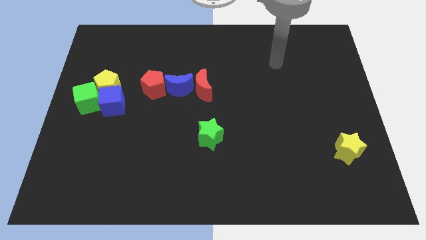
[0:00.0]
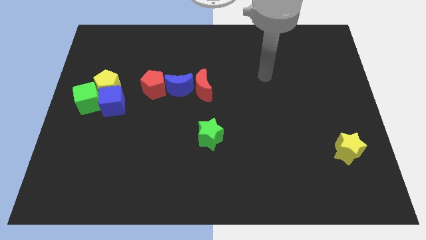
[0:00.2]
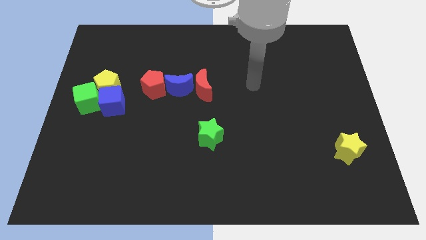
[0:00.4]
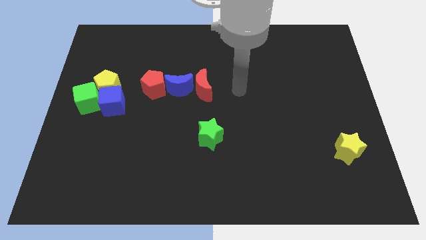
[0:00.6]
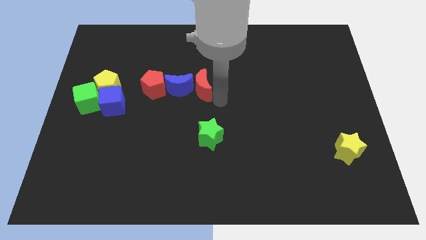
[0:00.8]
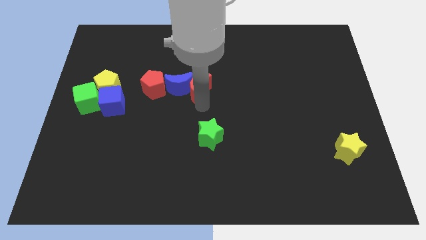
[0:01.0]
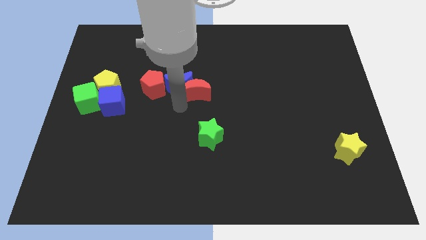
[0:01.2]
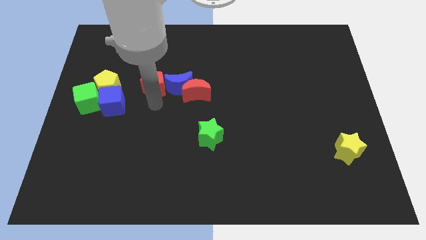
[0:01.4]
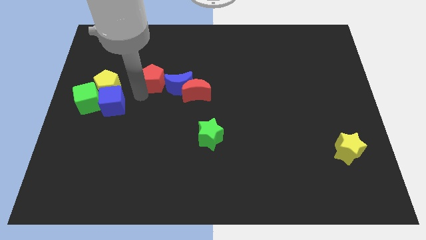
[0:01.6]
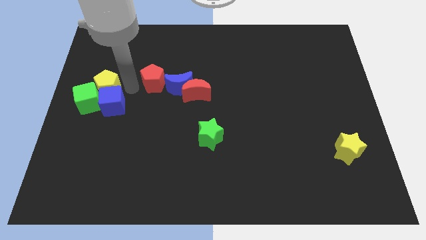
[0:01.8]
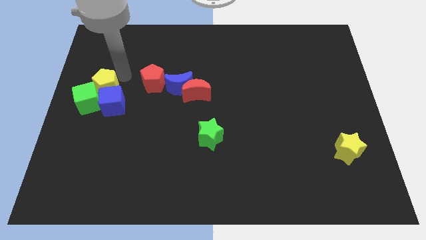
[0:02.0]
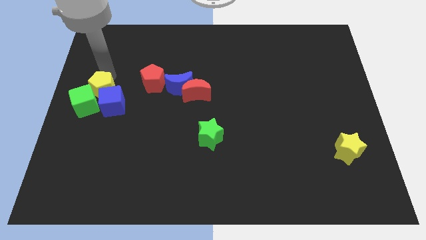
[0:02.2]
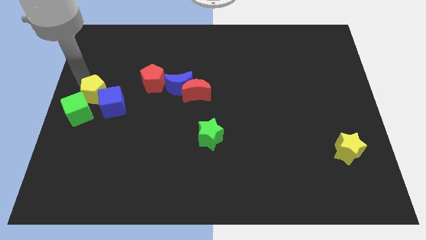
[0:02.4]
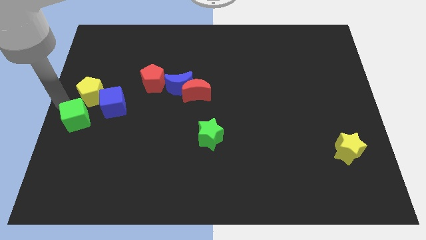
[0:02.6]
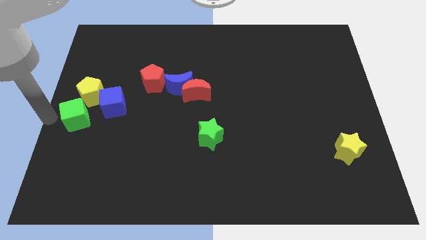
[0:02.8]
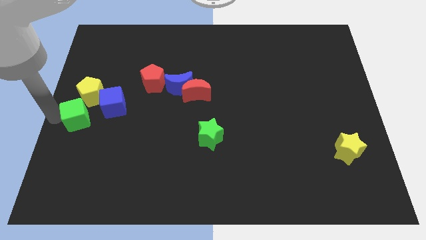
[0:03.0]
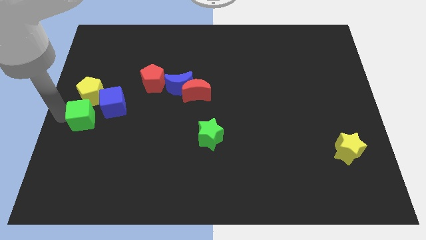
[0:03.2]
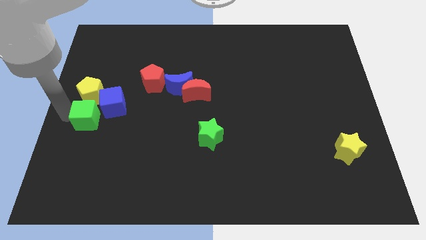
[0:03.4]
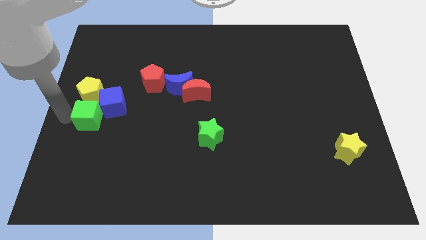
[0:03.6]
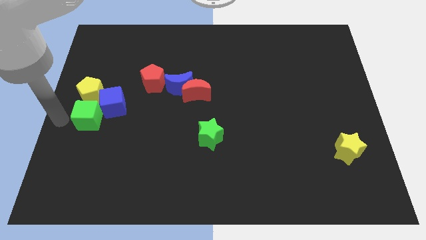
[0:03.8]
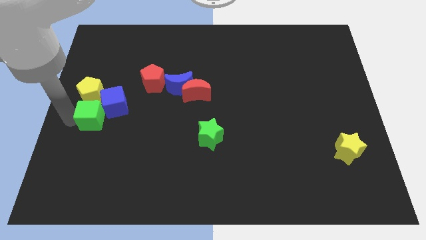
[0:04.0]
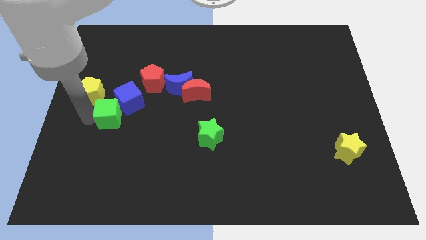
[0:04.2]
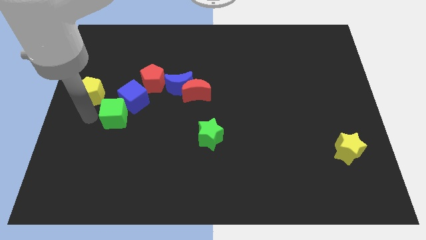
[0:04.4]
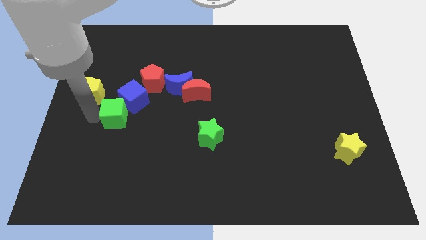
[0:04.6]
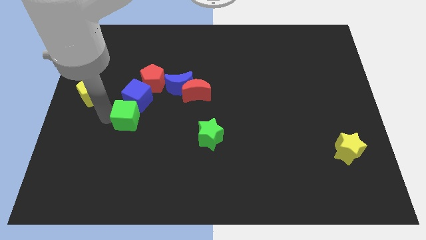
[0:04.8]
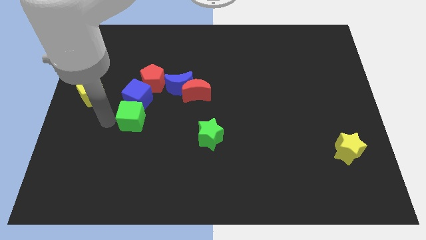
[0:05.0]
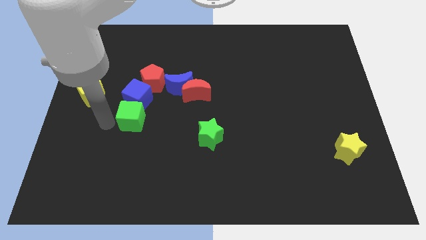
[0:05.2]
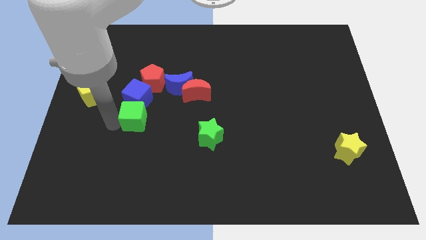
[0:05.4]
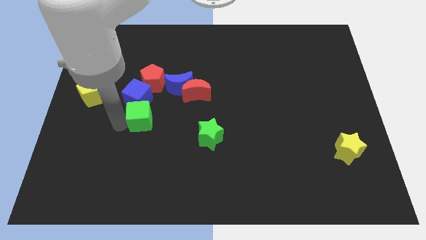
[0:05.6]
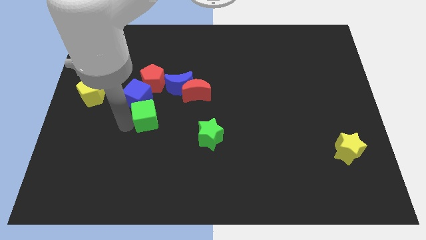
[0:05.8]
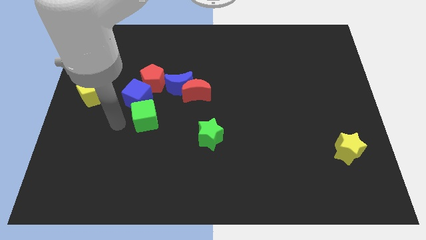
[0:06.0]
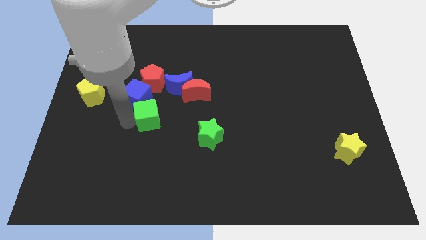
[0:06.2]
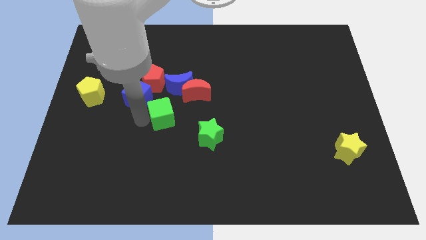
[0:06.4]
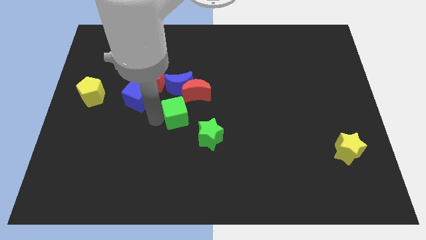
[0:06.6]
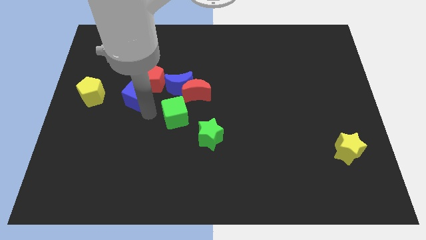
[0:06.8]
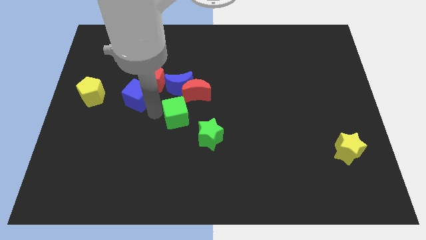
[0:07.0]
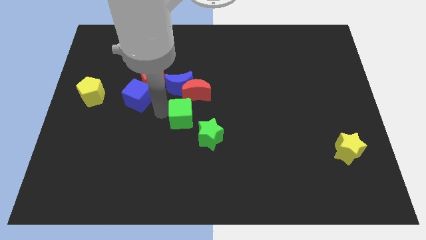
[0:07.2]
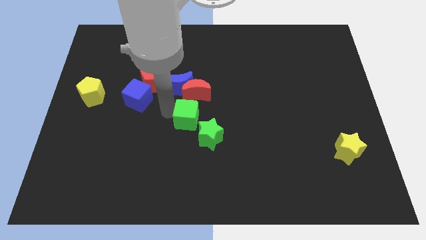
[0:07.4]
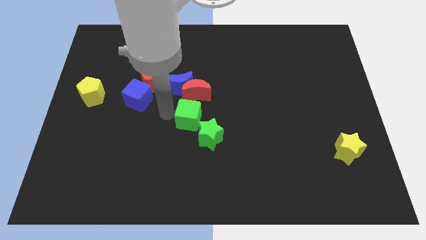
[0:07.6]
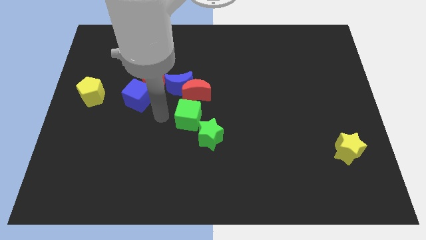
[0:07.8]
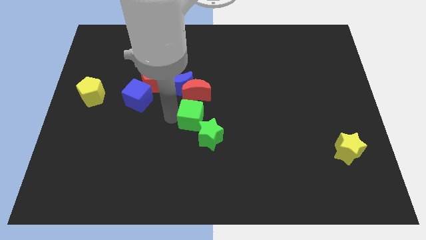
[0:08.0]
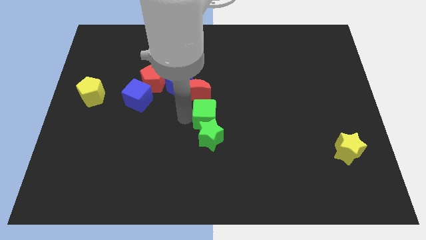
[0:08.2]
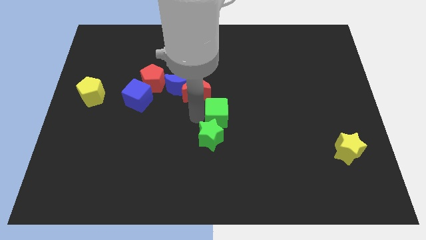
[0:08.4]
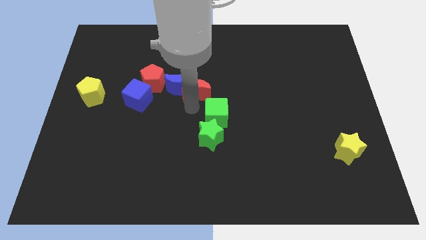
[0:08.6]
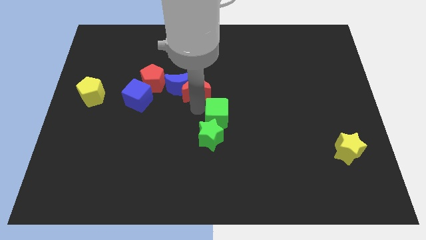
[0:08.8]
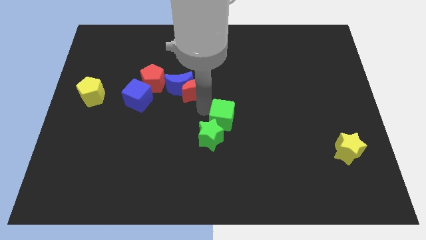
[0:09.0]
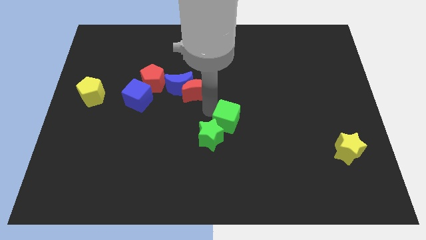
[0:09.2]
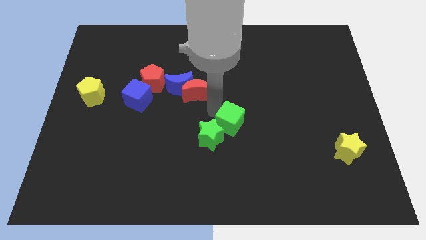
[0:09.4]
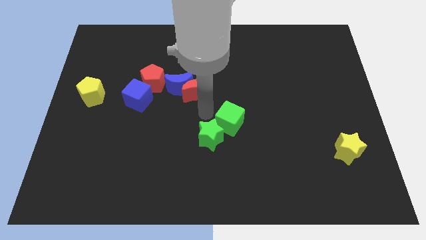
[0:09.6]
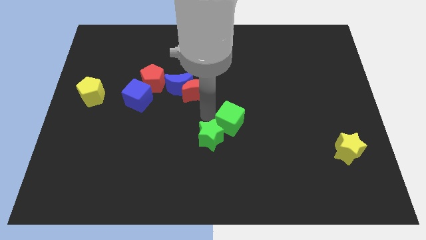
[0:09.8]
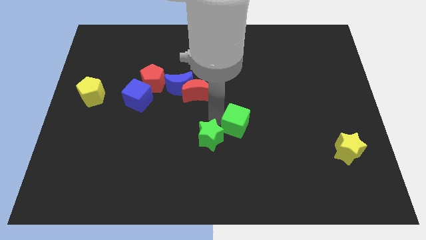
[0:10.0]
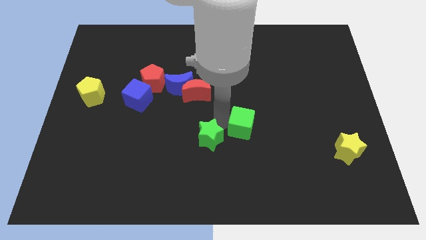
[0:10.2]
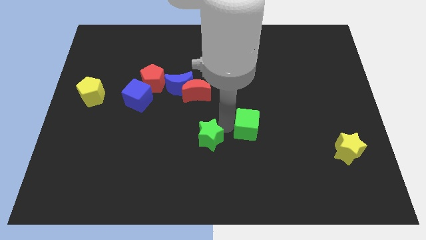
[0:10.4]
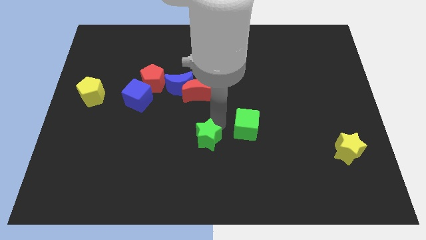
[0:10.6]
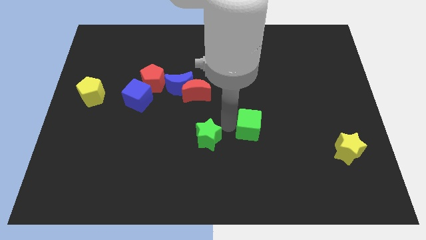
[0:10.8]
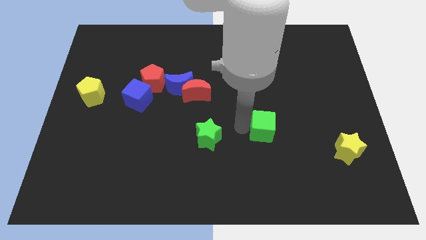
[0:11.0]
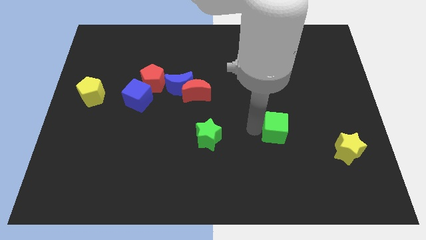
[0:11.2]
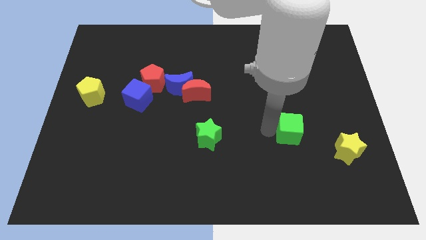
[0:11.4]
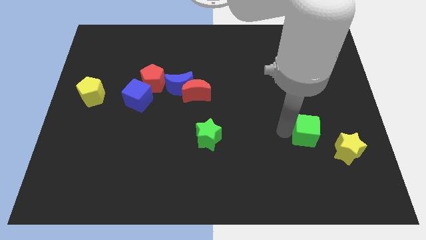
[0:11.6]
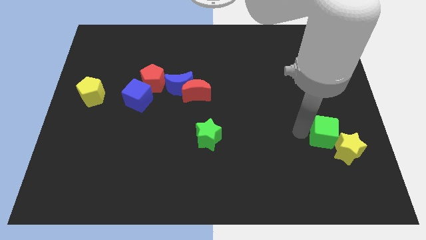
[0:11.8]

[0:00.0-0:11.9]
slide the green cube next to the yellow star

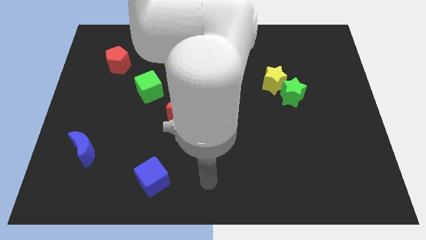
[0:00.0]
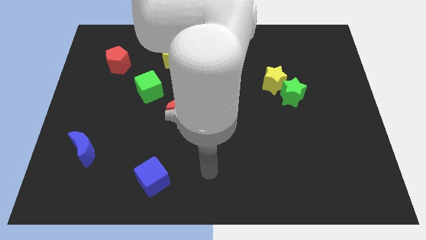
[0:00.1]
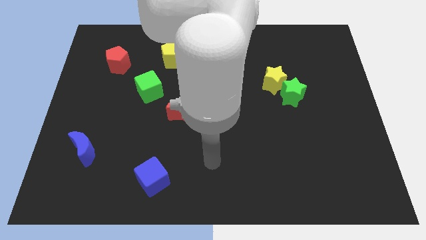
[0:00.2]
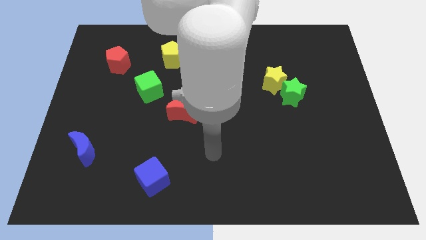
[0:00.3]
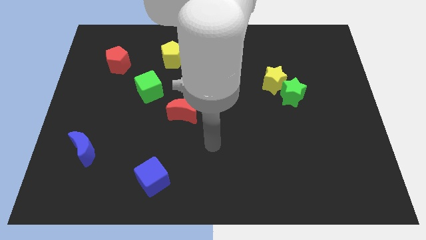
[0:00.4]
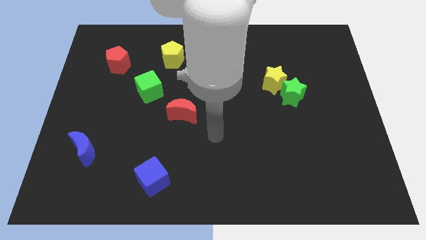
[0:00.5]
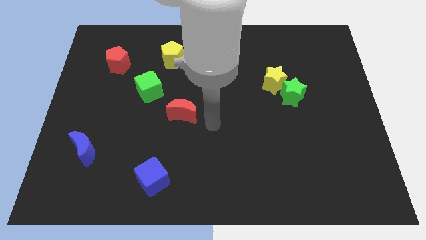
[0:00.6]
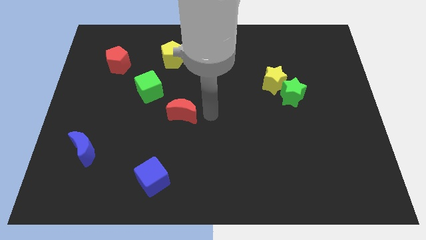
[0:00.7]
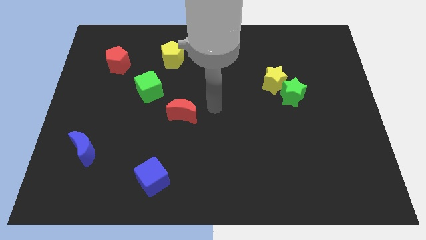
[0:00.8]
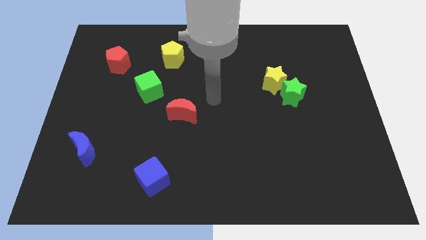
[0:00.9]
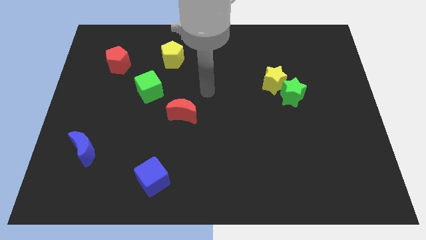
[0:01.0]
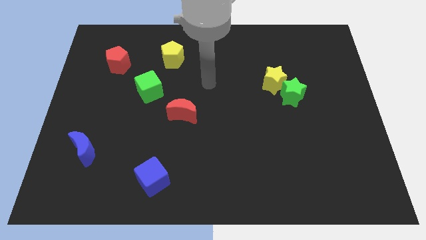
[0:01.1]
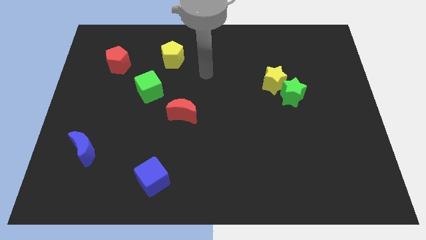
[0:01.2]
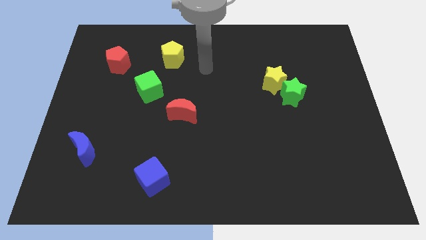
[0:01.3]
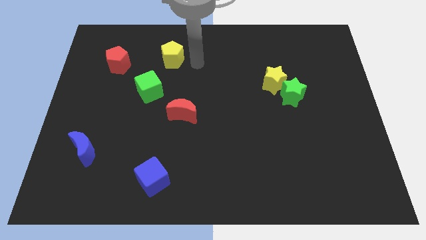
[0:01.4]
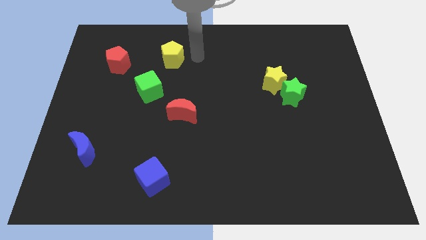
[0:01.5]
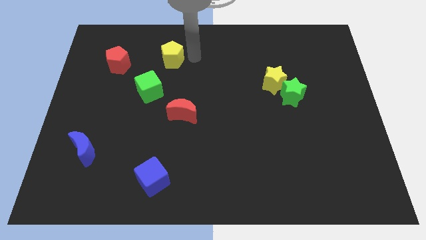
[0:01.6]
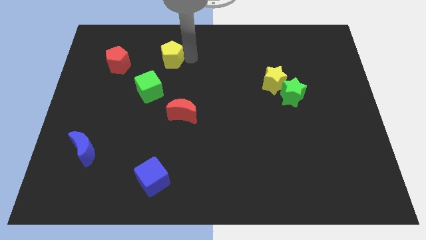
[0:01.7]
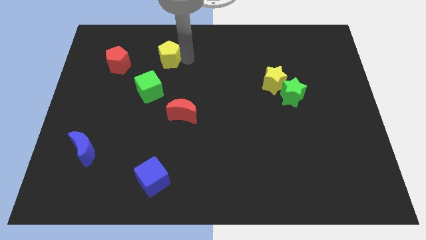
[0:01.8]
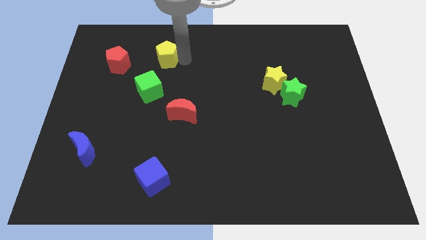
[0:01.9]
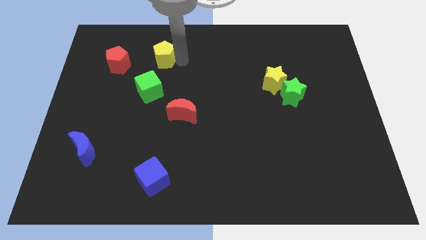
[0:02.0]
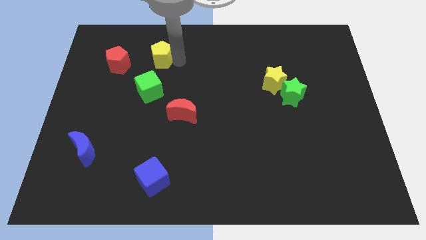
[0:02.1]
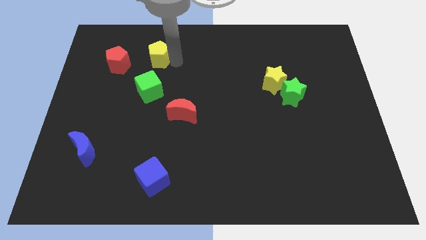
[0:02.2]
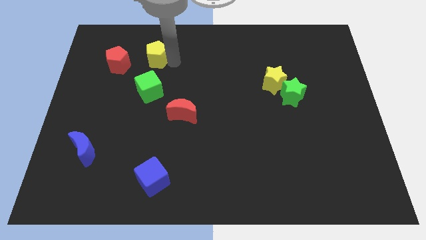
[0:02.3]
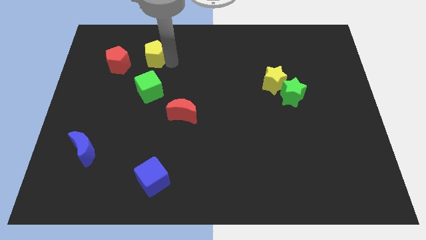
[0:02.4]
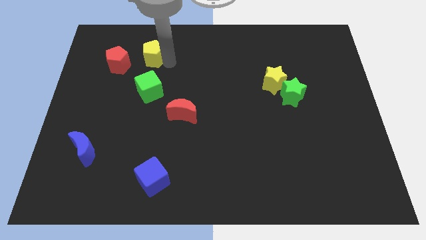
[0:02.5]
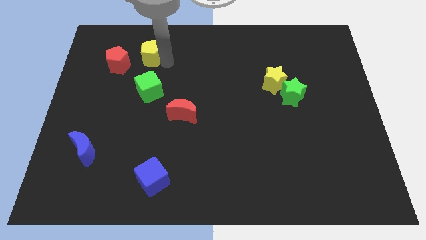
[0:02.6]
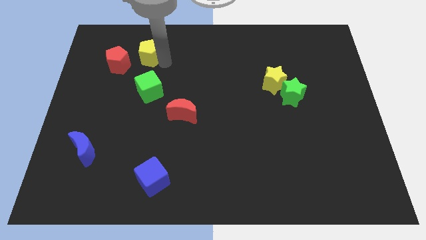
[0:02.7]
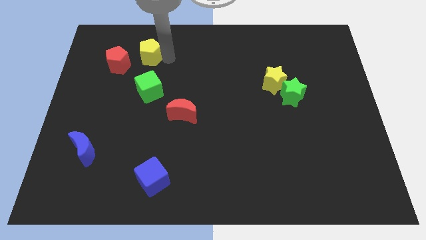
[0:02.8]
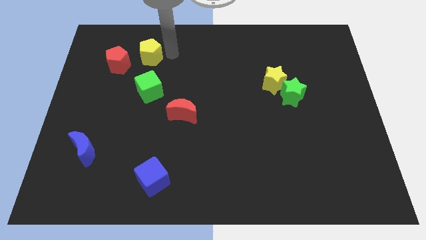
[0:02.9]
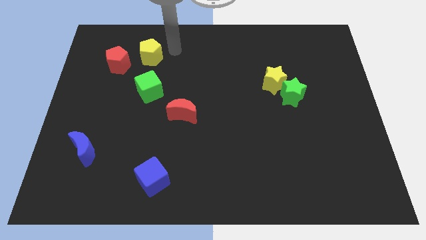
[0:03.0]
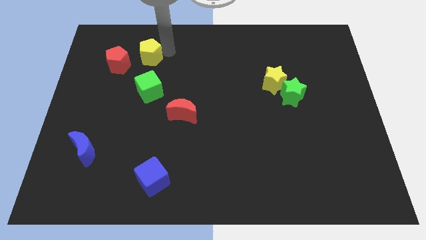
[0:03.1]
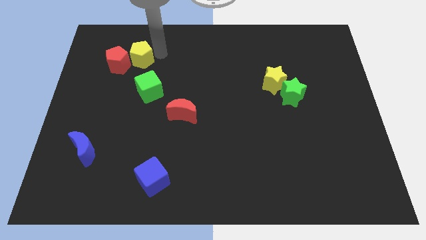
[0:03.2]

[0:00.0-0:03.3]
push the yellow pentagon towards the red pentagon
